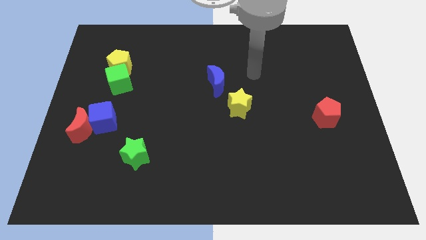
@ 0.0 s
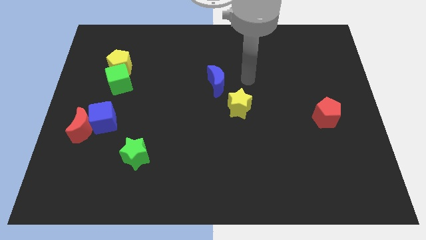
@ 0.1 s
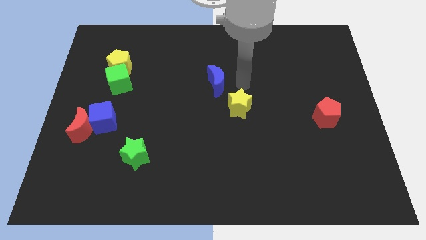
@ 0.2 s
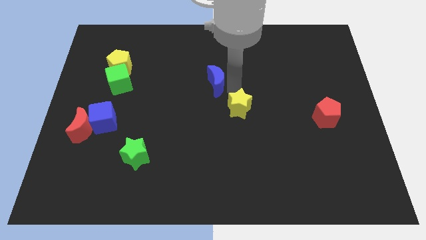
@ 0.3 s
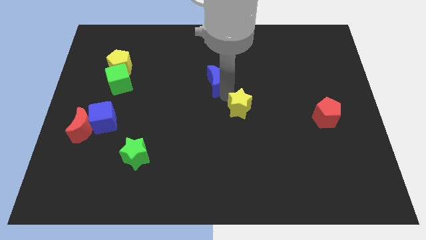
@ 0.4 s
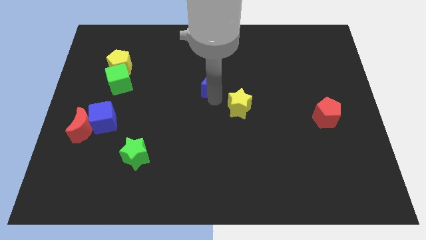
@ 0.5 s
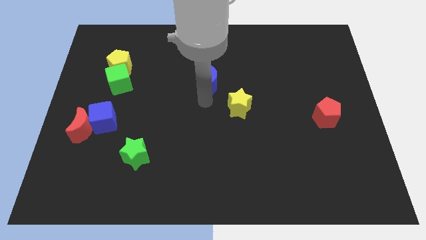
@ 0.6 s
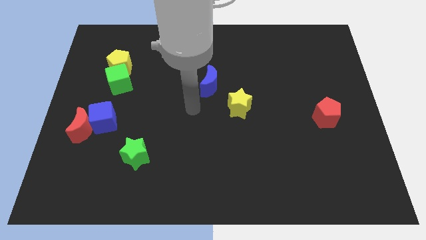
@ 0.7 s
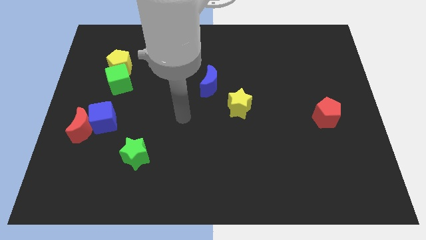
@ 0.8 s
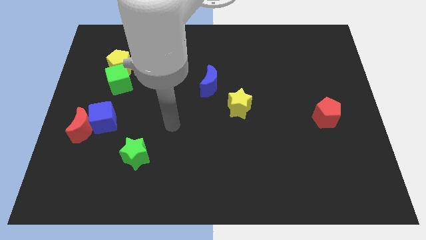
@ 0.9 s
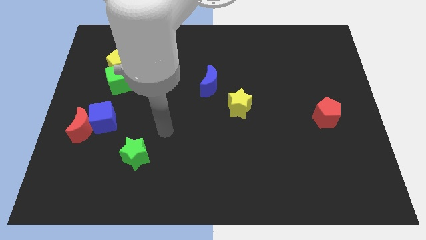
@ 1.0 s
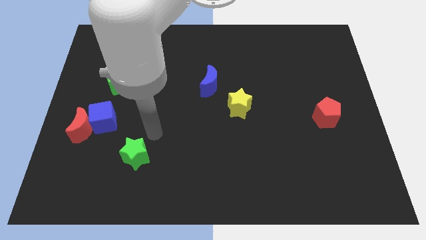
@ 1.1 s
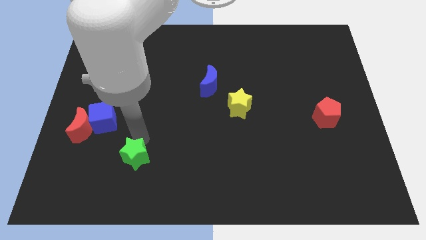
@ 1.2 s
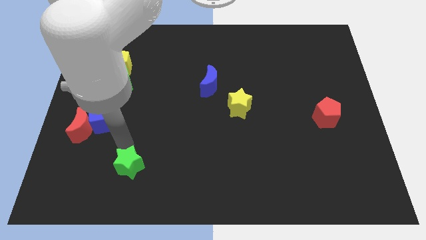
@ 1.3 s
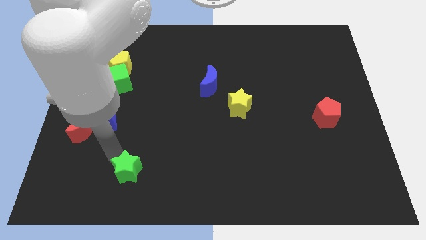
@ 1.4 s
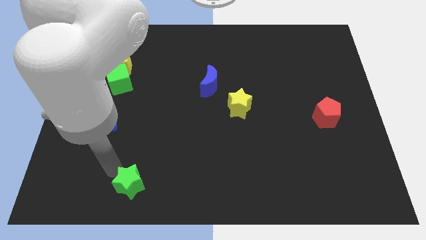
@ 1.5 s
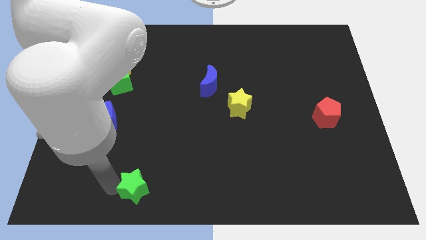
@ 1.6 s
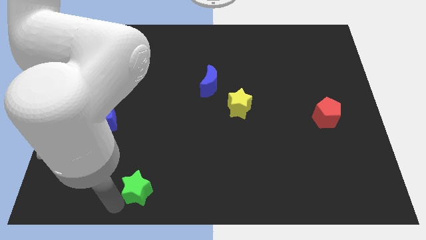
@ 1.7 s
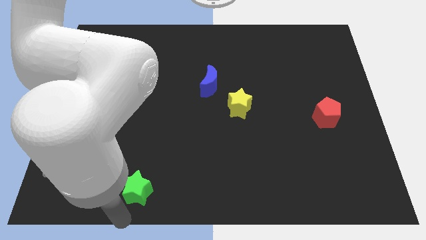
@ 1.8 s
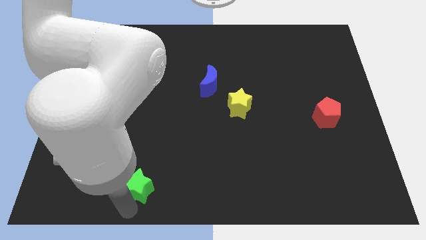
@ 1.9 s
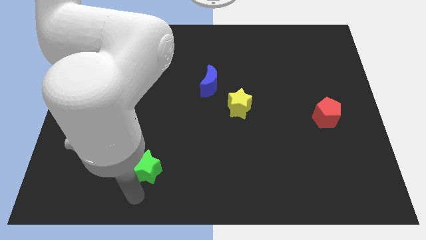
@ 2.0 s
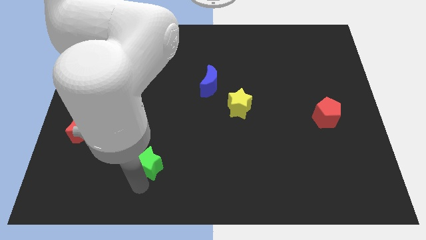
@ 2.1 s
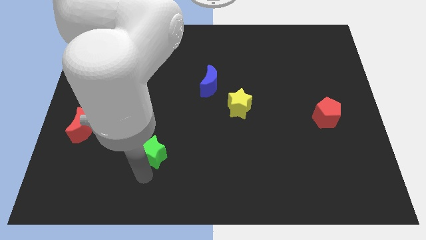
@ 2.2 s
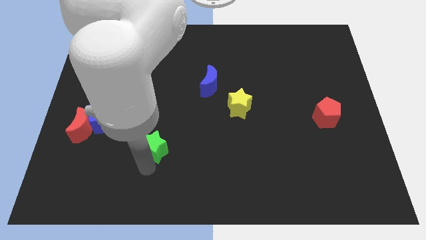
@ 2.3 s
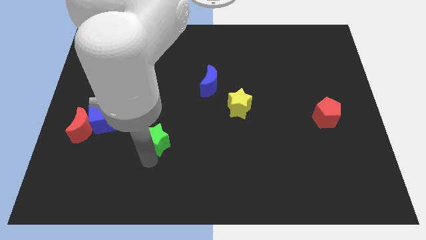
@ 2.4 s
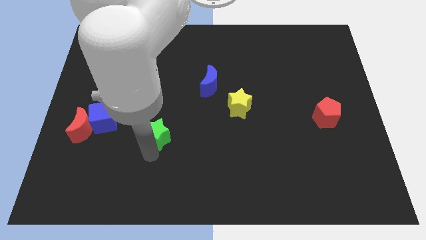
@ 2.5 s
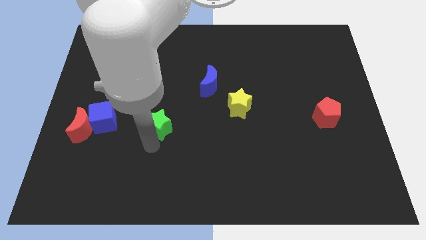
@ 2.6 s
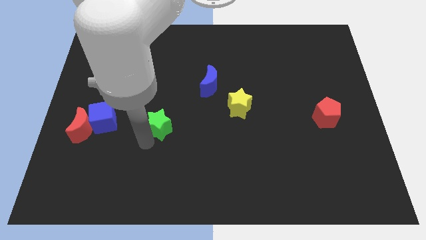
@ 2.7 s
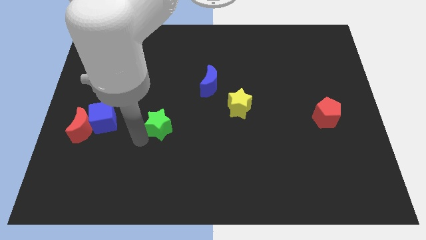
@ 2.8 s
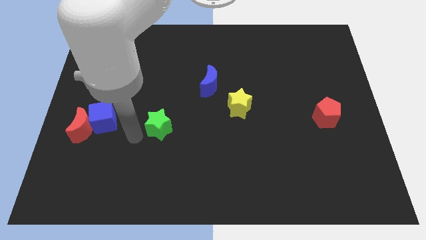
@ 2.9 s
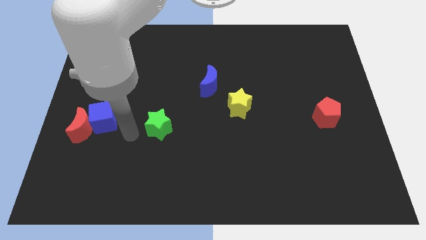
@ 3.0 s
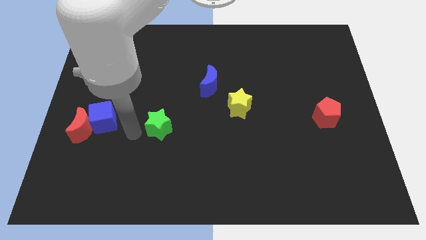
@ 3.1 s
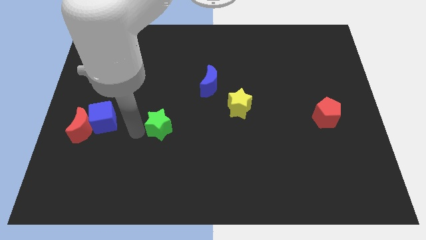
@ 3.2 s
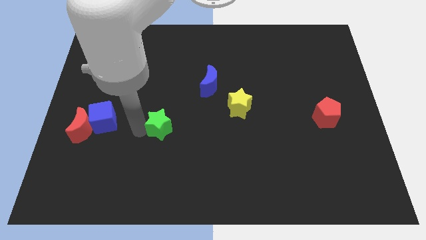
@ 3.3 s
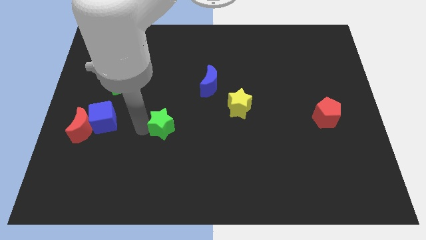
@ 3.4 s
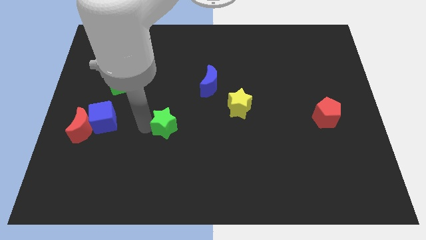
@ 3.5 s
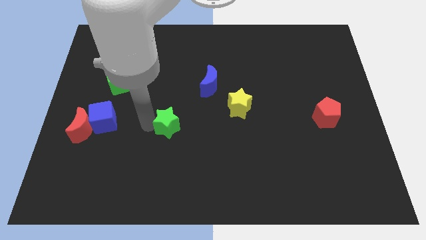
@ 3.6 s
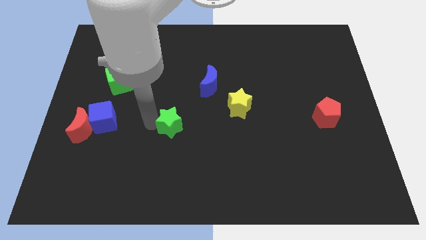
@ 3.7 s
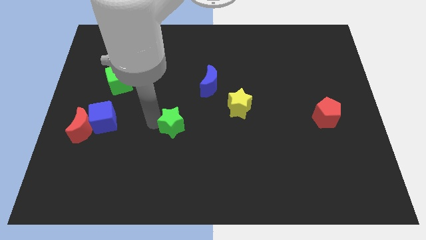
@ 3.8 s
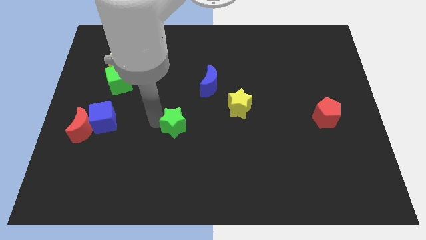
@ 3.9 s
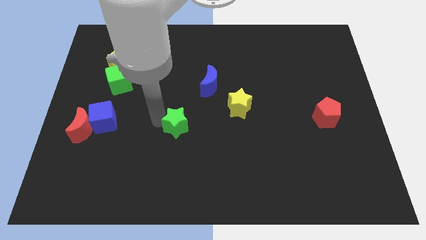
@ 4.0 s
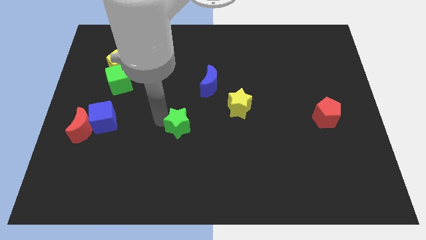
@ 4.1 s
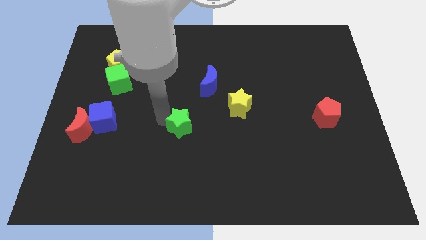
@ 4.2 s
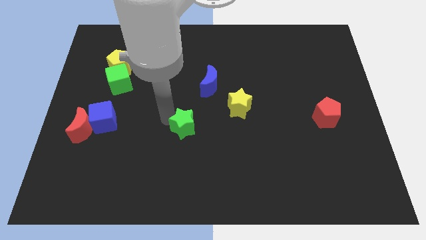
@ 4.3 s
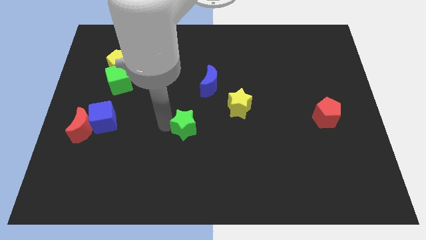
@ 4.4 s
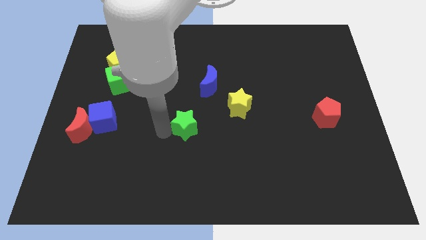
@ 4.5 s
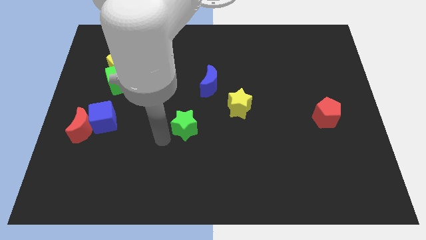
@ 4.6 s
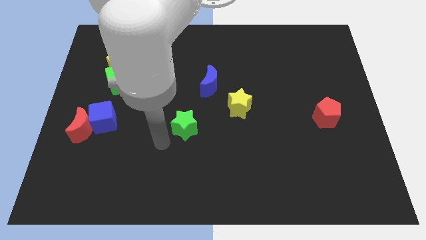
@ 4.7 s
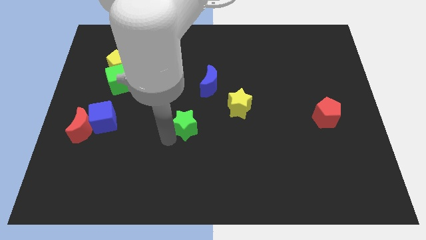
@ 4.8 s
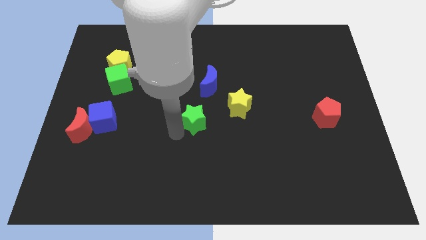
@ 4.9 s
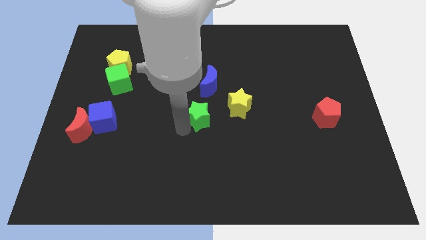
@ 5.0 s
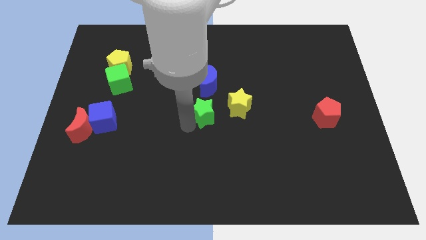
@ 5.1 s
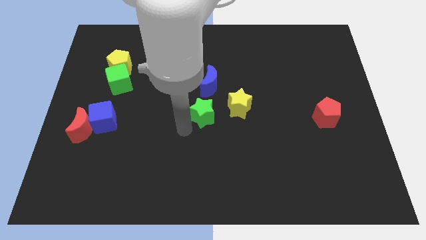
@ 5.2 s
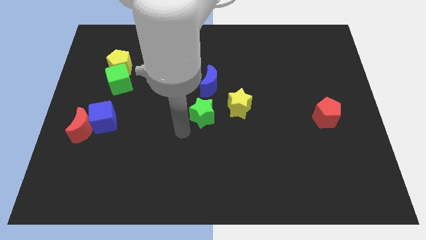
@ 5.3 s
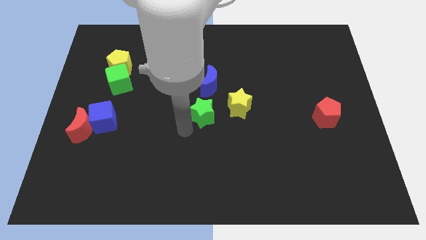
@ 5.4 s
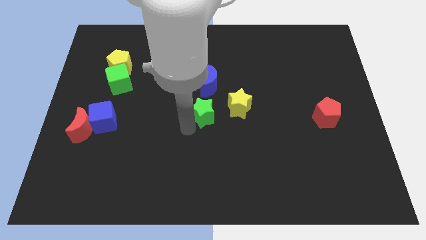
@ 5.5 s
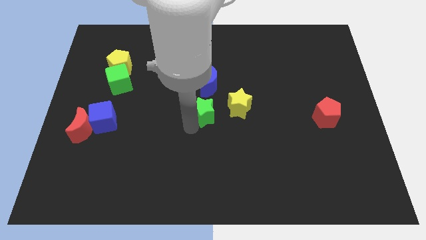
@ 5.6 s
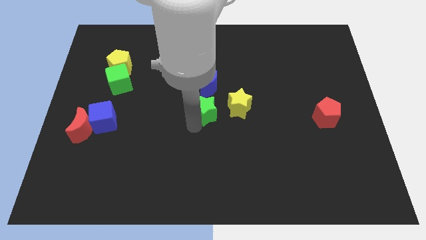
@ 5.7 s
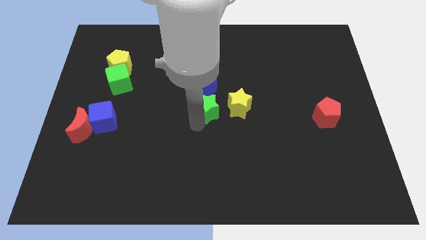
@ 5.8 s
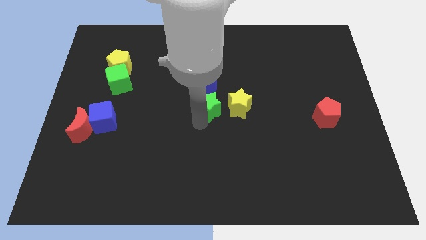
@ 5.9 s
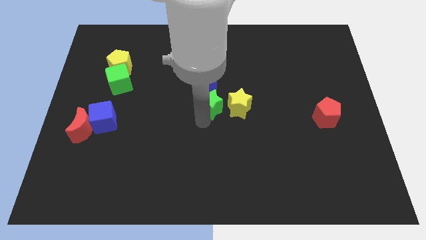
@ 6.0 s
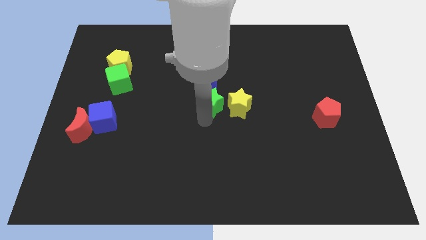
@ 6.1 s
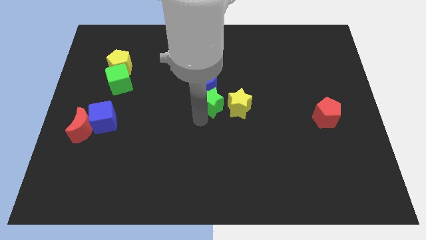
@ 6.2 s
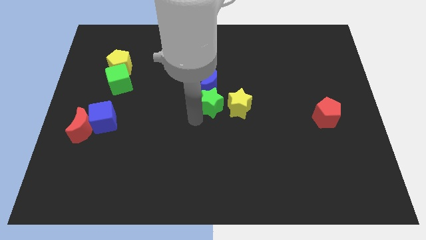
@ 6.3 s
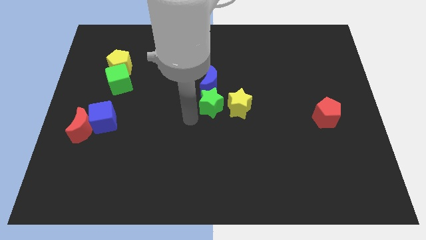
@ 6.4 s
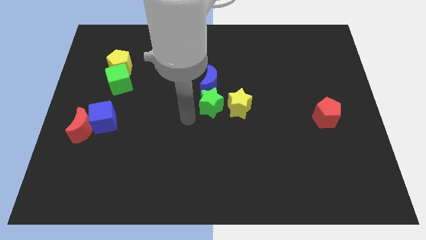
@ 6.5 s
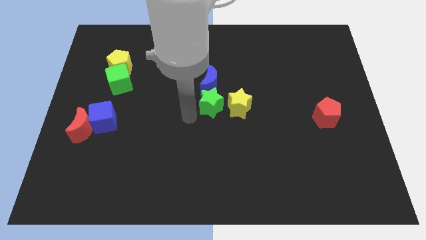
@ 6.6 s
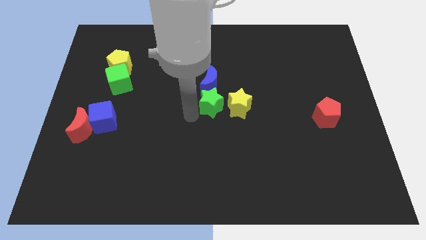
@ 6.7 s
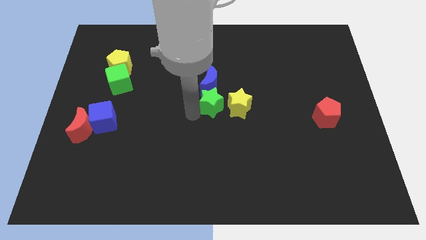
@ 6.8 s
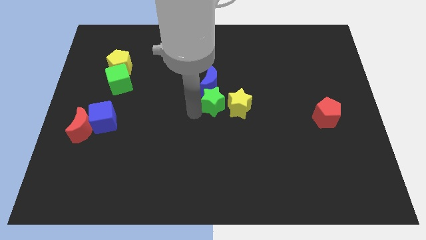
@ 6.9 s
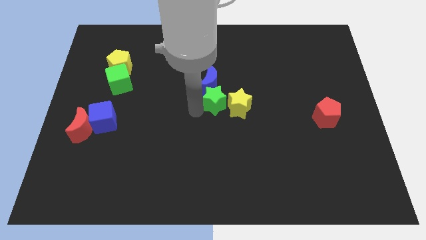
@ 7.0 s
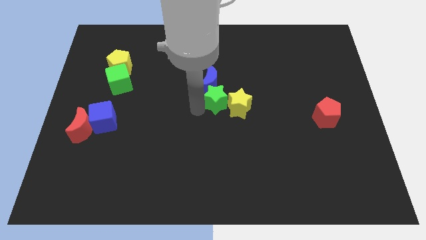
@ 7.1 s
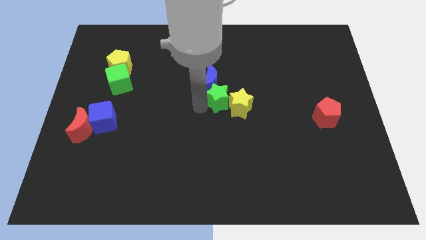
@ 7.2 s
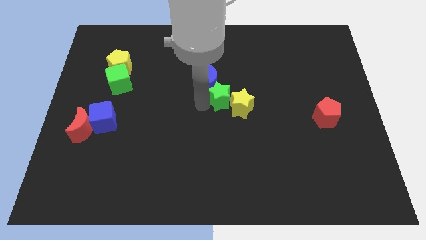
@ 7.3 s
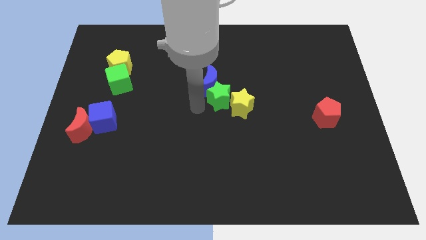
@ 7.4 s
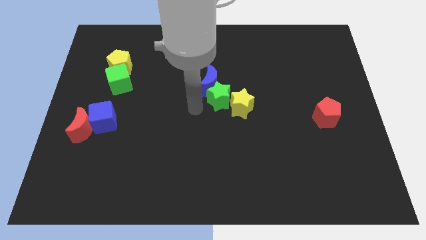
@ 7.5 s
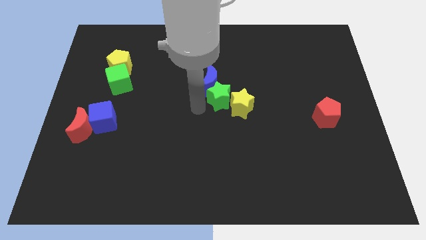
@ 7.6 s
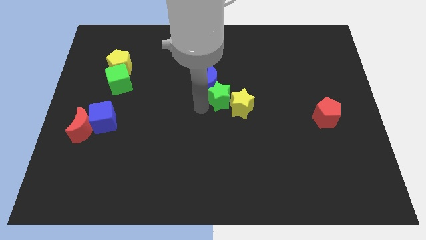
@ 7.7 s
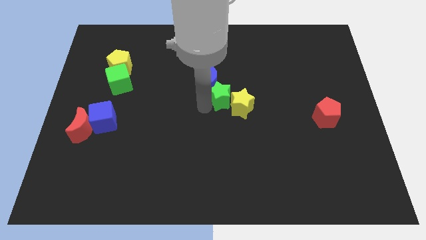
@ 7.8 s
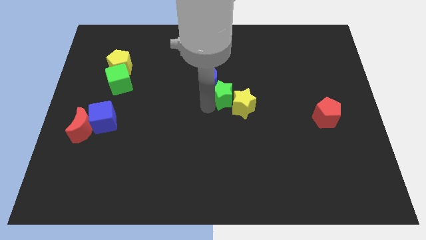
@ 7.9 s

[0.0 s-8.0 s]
push the green star to the right of the blue moon
